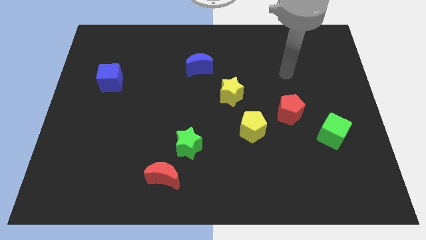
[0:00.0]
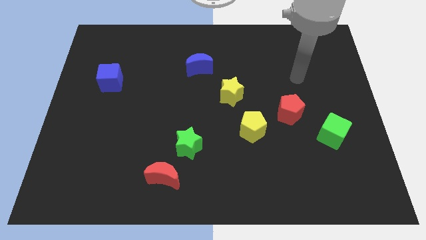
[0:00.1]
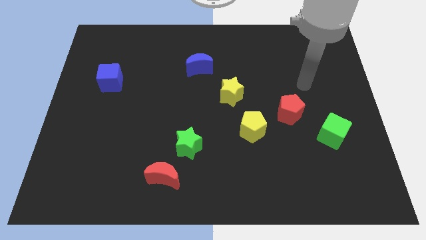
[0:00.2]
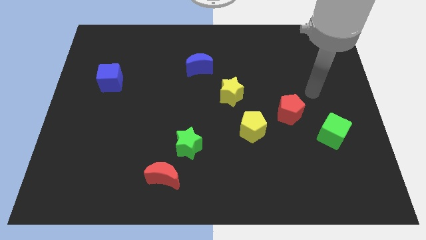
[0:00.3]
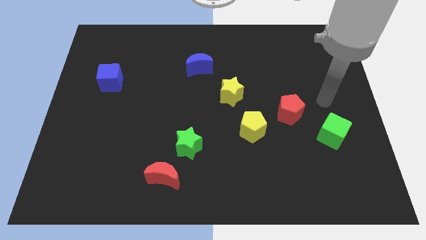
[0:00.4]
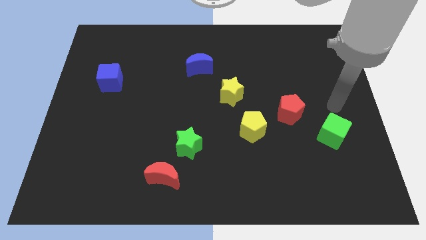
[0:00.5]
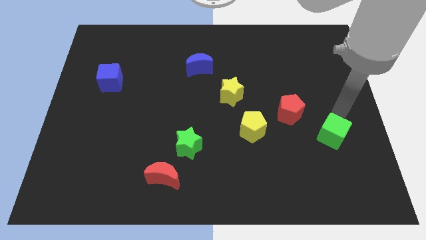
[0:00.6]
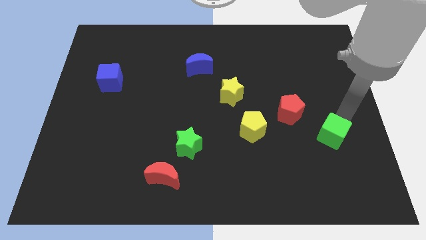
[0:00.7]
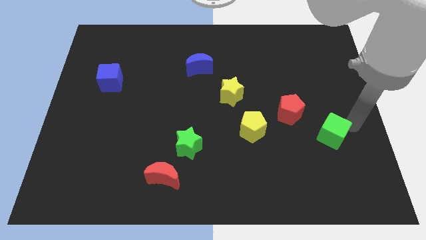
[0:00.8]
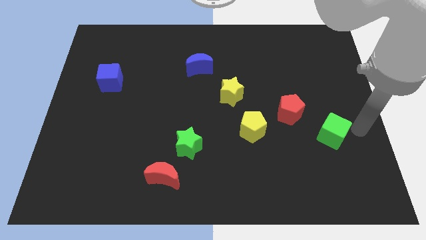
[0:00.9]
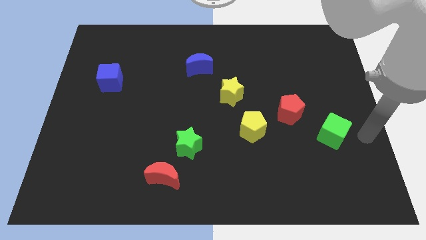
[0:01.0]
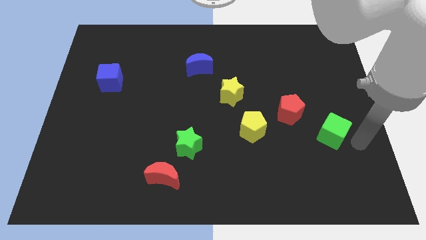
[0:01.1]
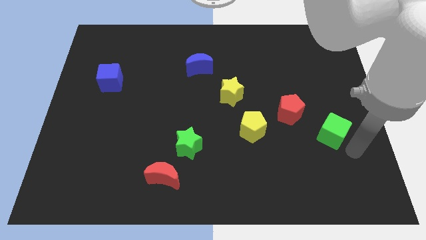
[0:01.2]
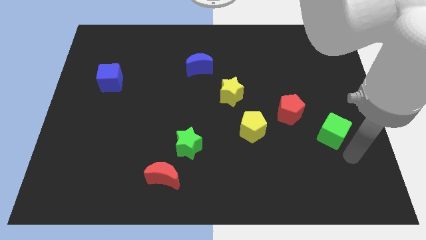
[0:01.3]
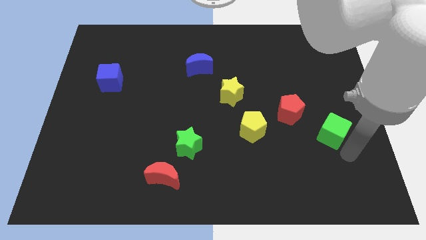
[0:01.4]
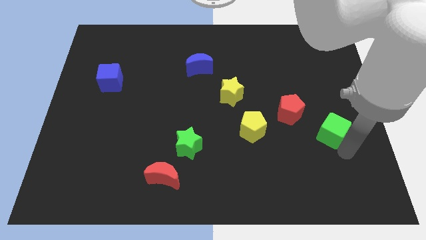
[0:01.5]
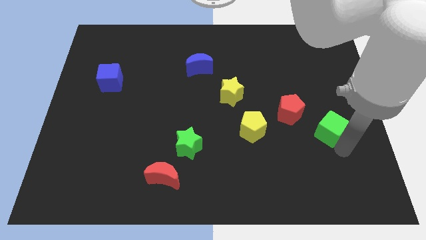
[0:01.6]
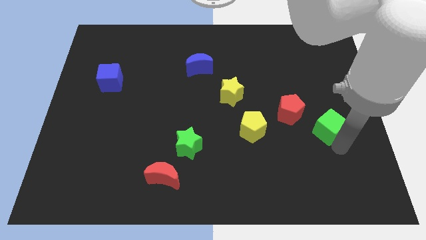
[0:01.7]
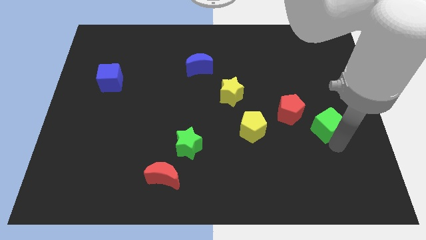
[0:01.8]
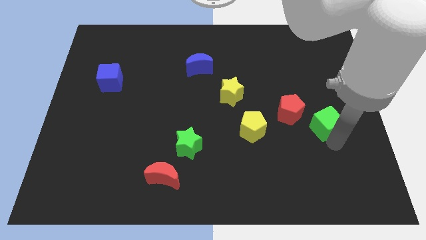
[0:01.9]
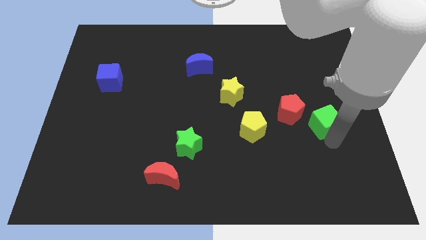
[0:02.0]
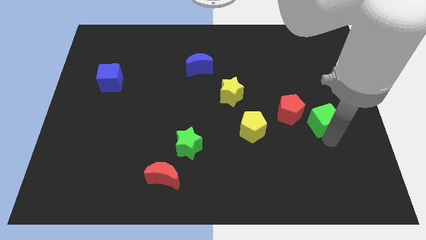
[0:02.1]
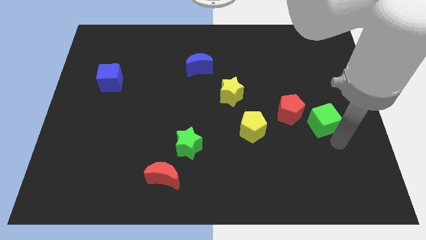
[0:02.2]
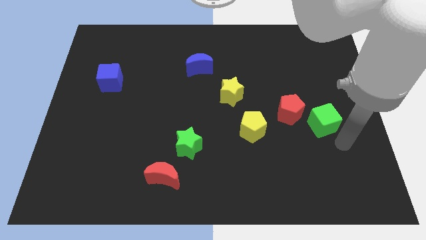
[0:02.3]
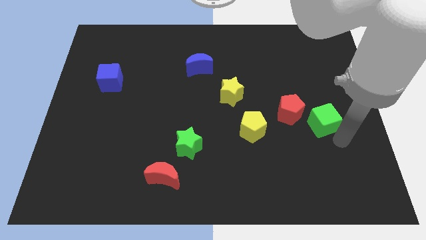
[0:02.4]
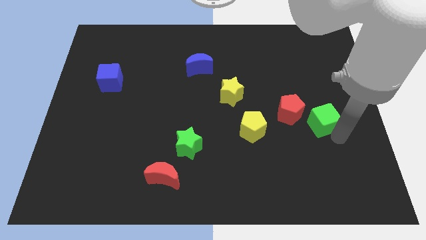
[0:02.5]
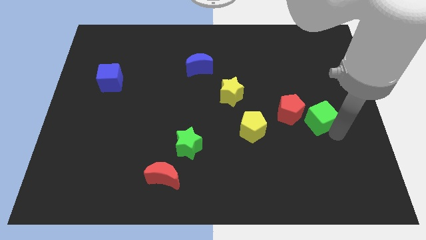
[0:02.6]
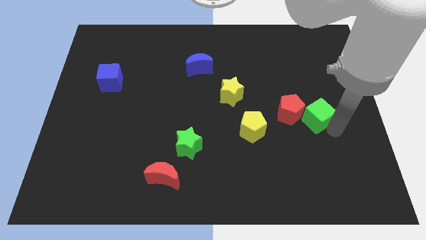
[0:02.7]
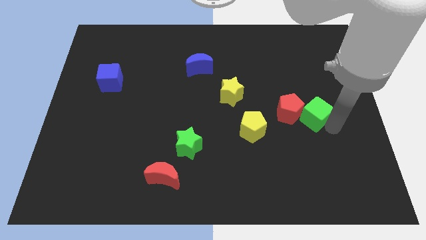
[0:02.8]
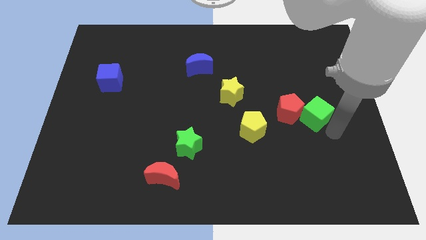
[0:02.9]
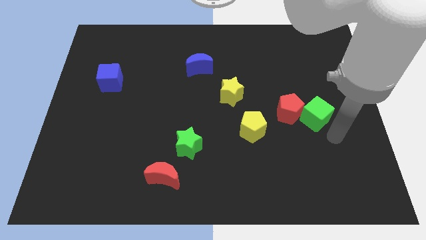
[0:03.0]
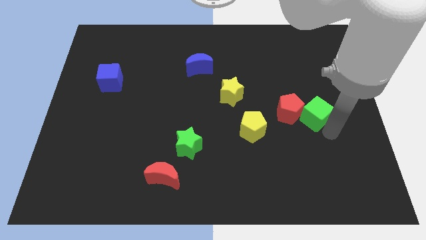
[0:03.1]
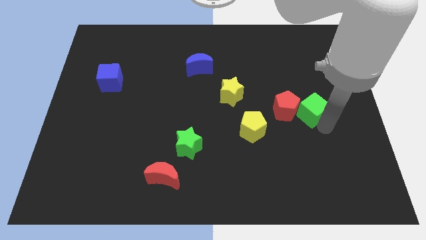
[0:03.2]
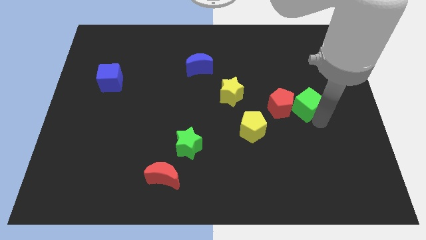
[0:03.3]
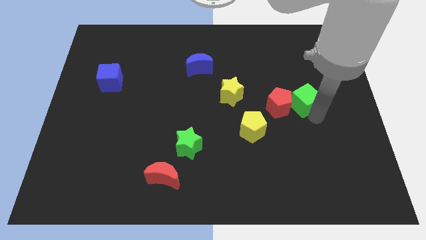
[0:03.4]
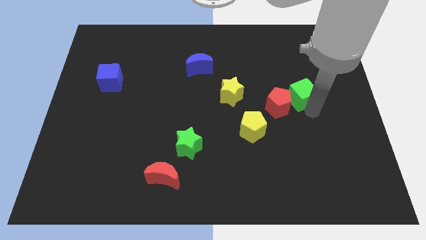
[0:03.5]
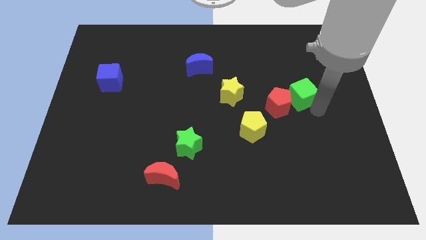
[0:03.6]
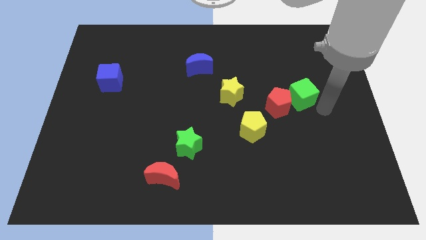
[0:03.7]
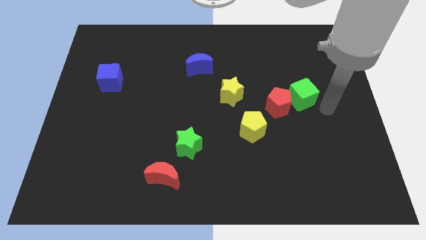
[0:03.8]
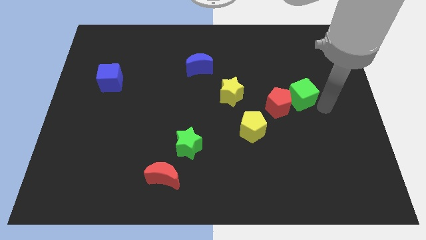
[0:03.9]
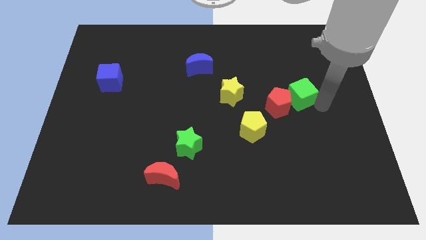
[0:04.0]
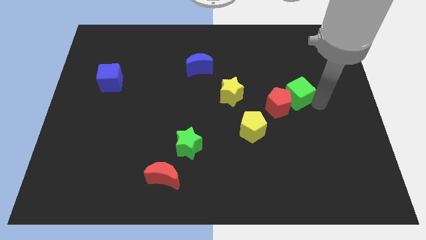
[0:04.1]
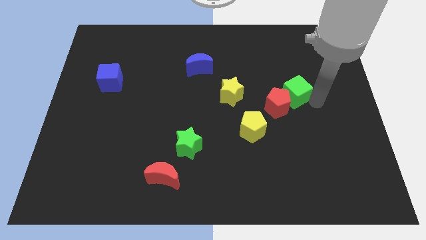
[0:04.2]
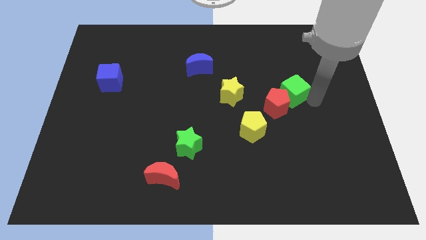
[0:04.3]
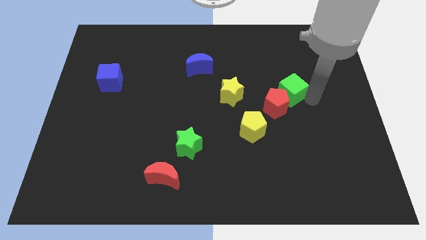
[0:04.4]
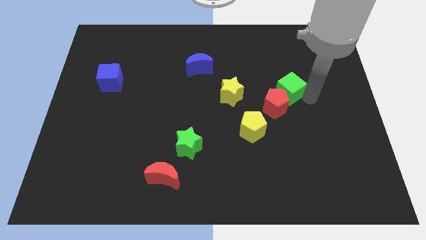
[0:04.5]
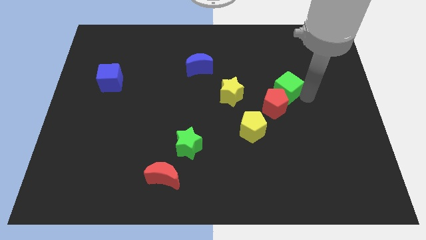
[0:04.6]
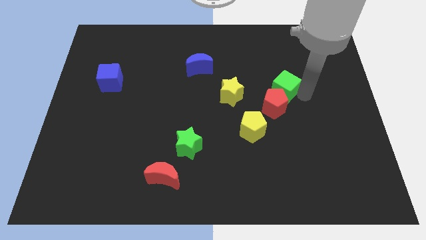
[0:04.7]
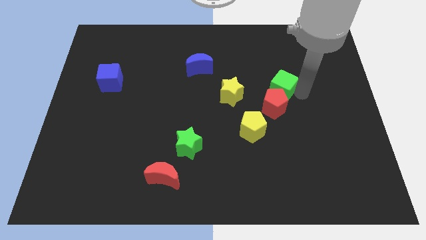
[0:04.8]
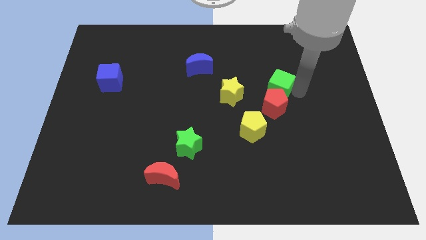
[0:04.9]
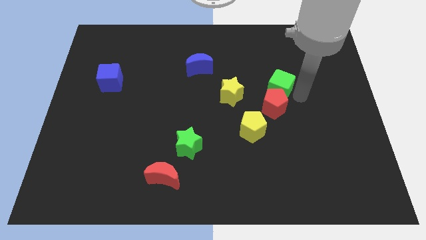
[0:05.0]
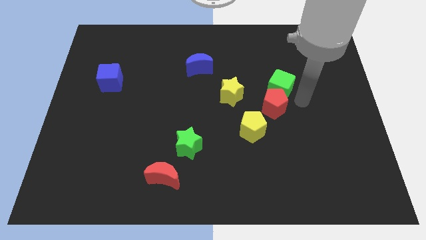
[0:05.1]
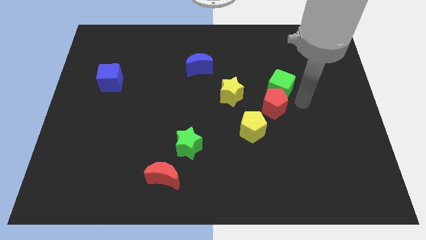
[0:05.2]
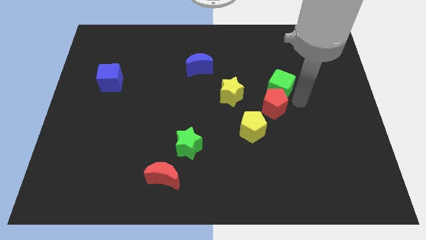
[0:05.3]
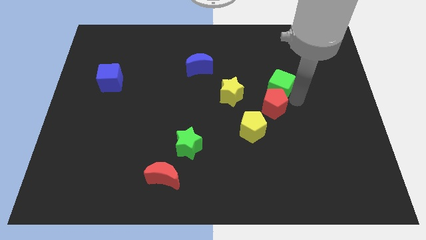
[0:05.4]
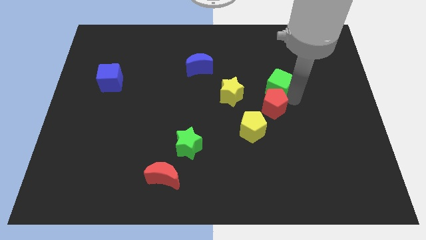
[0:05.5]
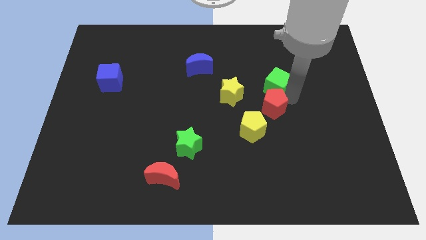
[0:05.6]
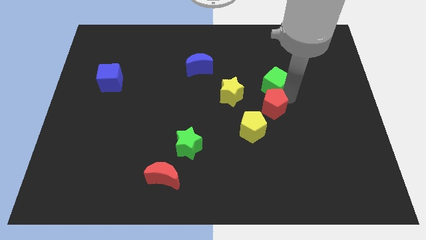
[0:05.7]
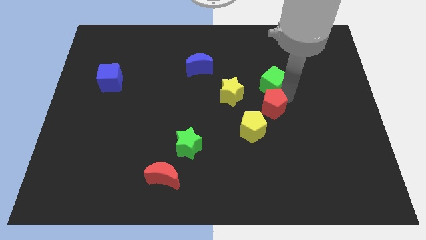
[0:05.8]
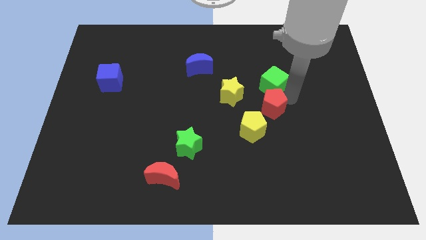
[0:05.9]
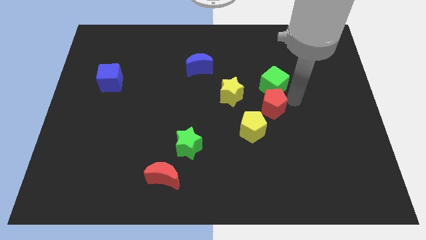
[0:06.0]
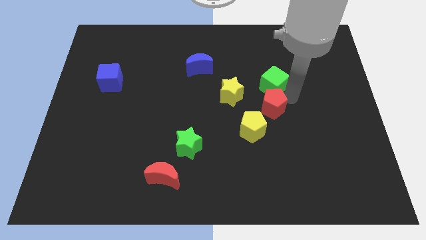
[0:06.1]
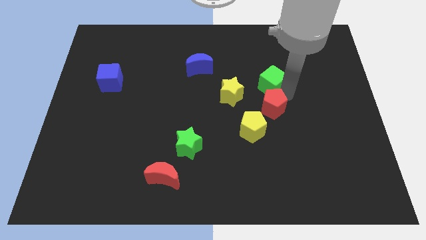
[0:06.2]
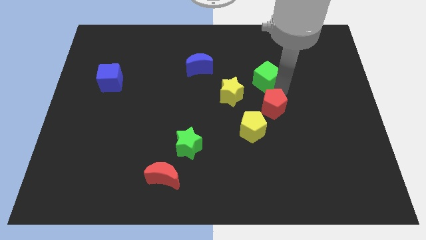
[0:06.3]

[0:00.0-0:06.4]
move the green cube upwards and then to the left

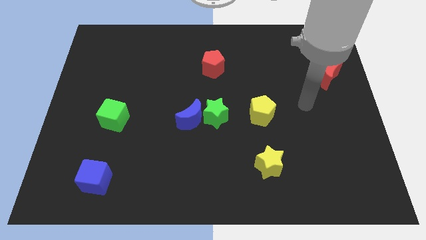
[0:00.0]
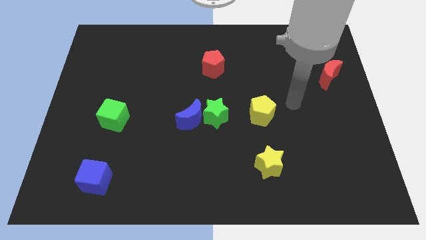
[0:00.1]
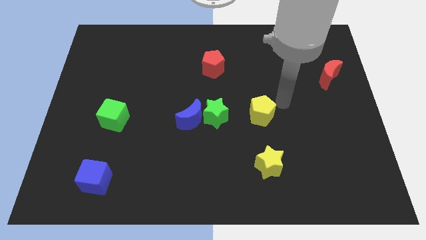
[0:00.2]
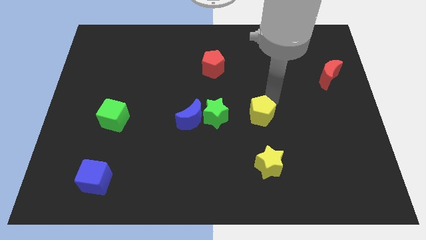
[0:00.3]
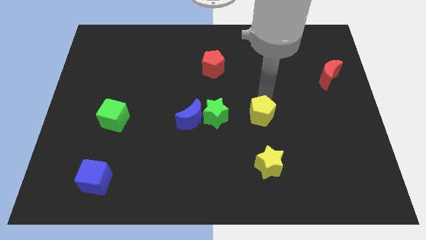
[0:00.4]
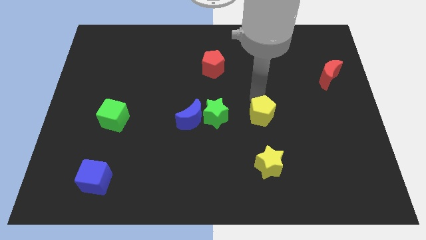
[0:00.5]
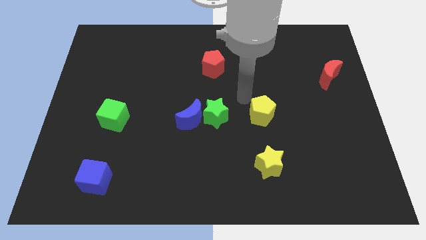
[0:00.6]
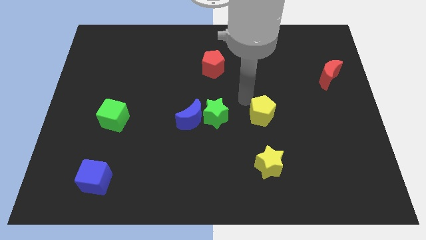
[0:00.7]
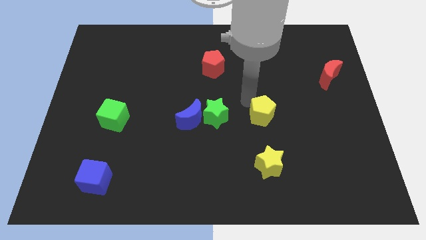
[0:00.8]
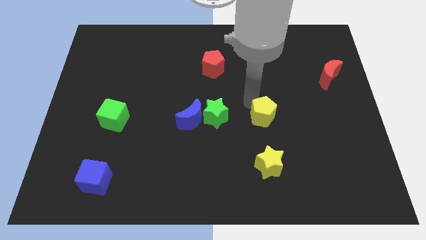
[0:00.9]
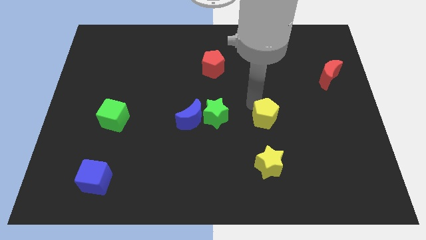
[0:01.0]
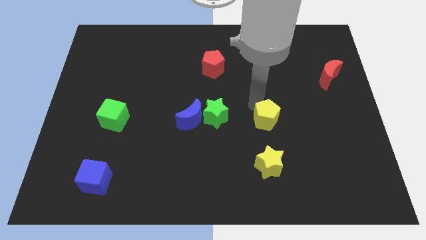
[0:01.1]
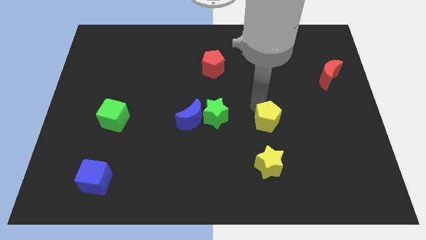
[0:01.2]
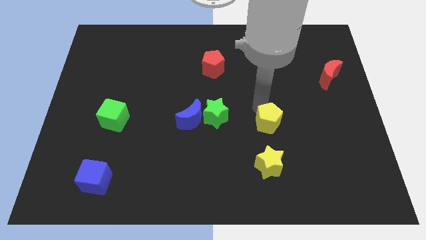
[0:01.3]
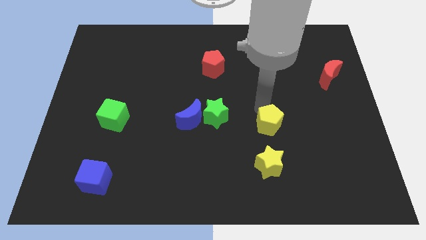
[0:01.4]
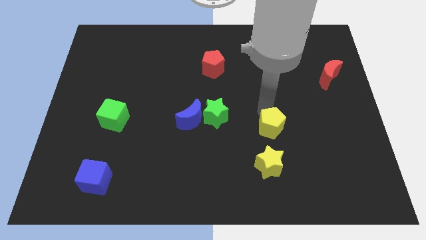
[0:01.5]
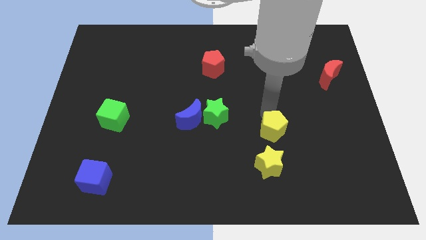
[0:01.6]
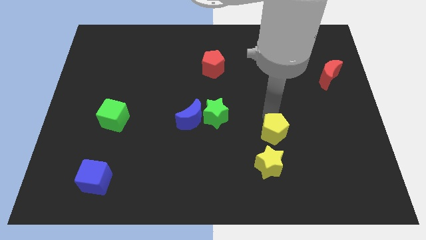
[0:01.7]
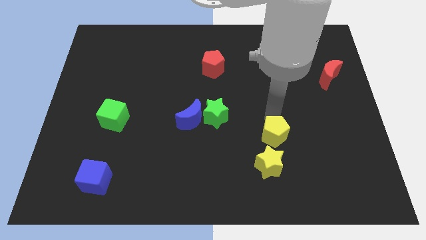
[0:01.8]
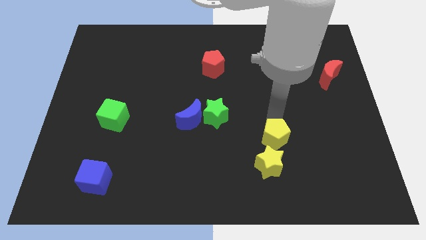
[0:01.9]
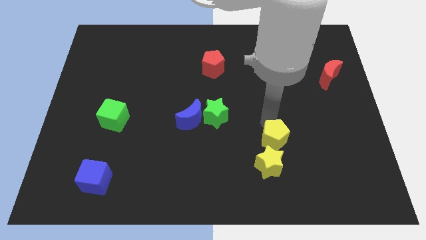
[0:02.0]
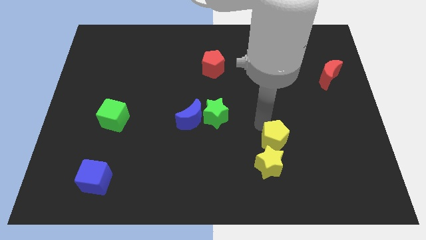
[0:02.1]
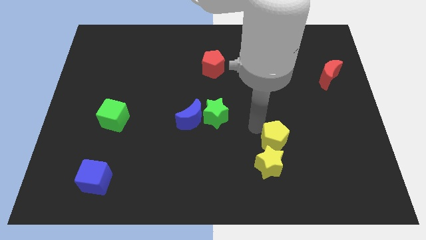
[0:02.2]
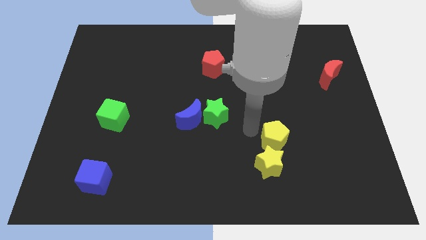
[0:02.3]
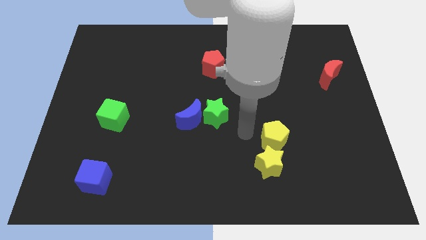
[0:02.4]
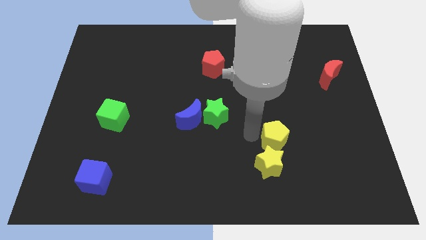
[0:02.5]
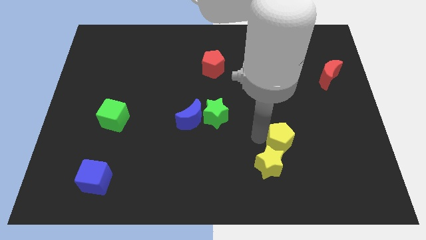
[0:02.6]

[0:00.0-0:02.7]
slightly push the yellow pentagon diagonally downwards and right
